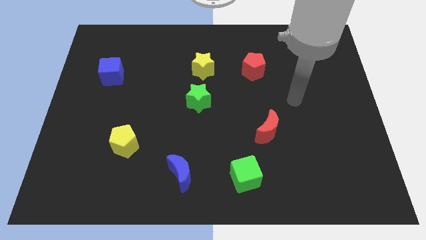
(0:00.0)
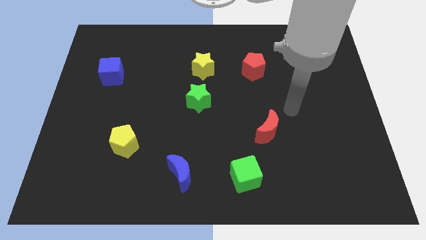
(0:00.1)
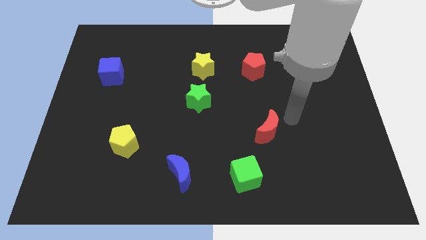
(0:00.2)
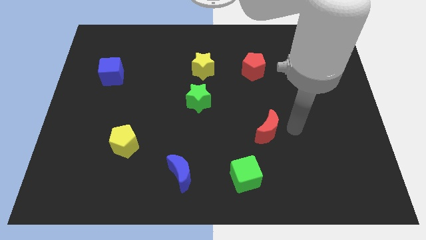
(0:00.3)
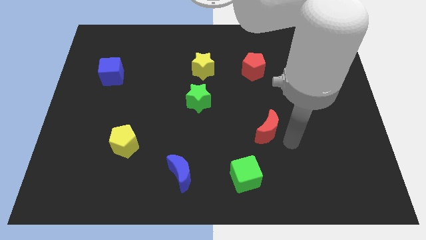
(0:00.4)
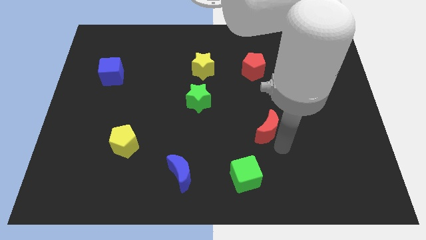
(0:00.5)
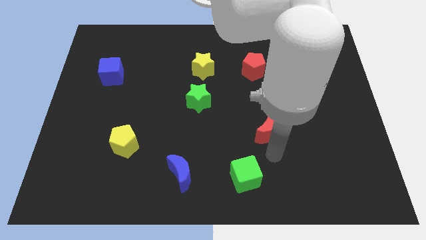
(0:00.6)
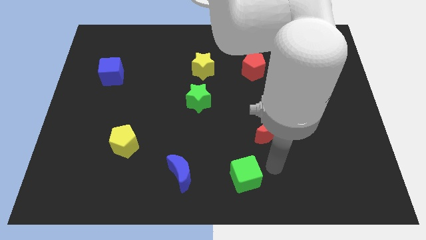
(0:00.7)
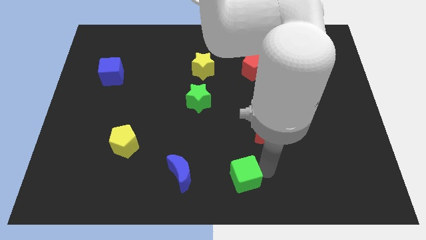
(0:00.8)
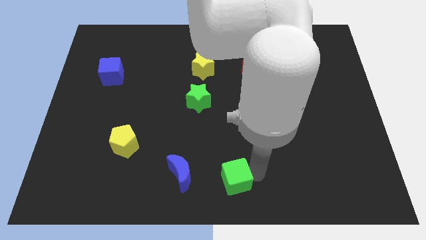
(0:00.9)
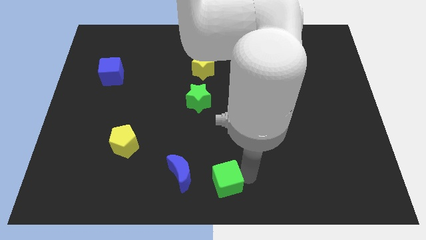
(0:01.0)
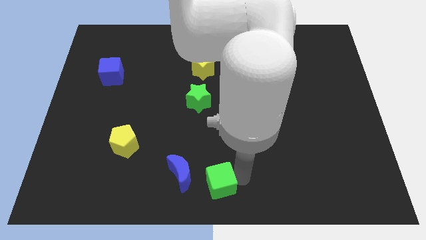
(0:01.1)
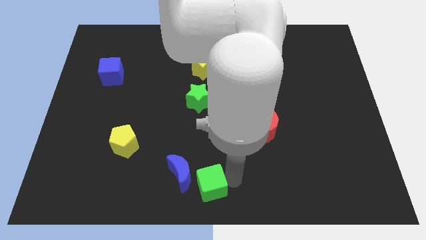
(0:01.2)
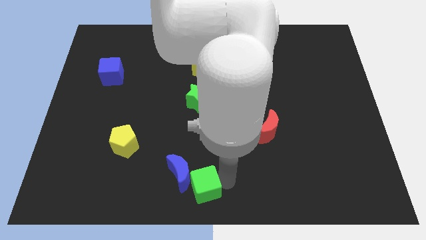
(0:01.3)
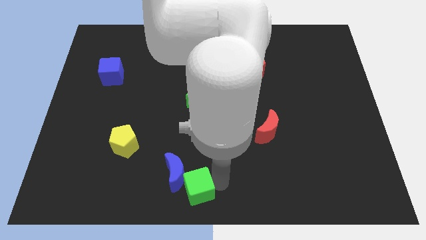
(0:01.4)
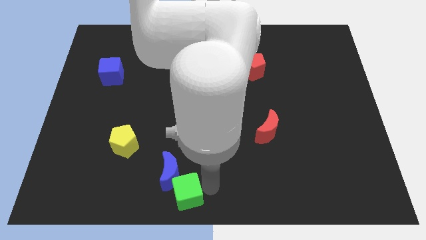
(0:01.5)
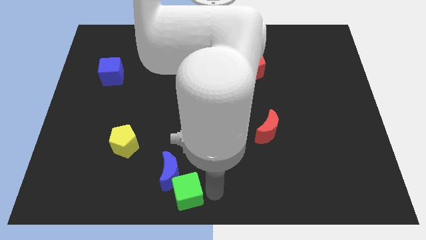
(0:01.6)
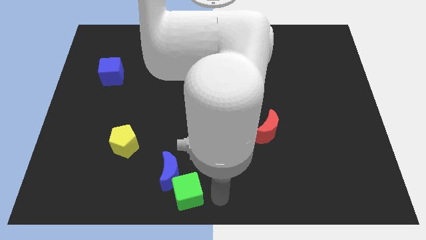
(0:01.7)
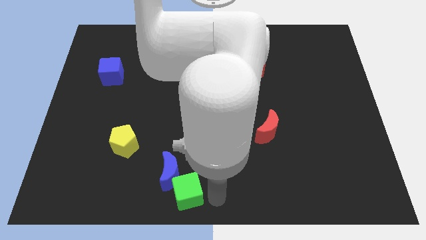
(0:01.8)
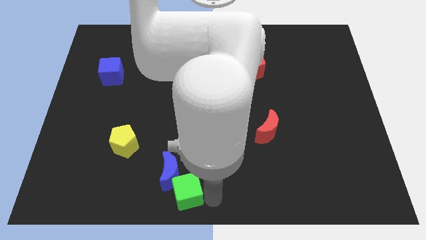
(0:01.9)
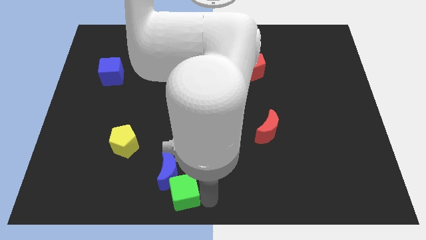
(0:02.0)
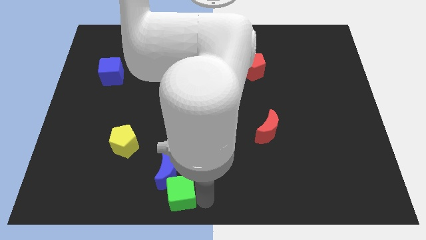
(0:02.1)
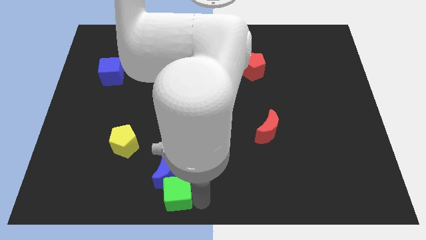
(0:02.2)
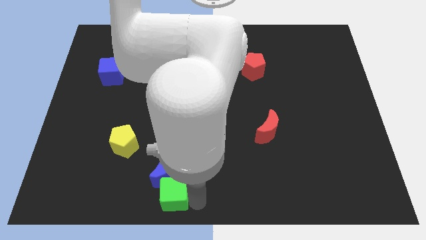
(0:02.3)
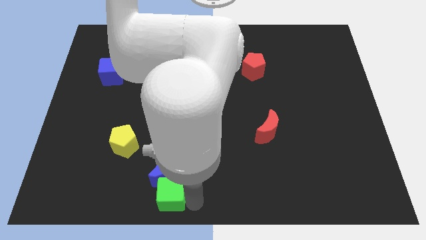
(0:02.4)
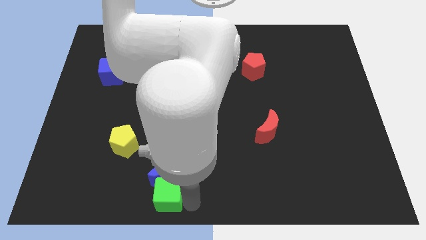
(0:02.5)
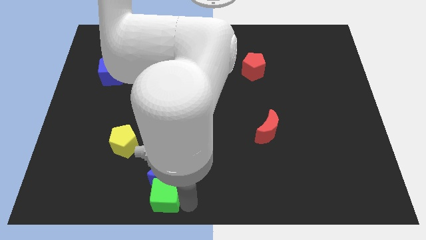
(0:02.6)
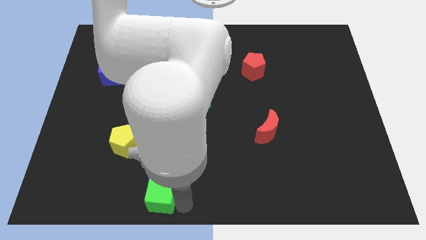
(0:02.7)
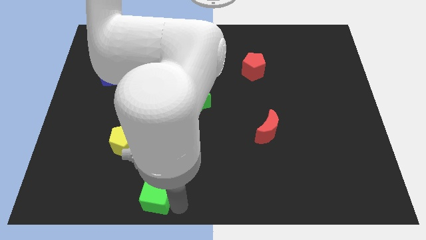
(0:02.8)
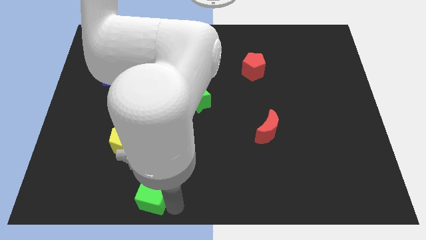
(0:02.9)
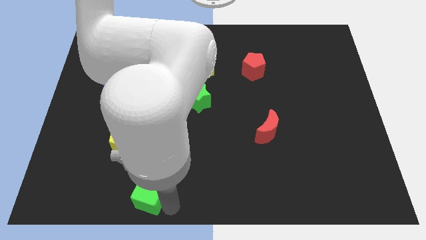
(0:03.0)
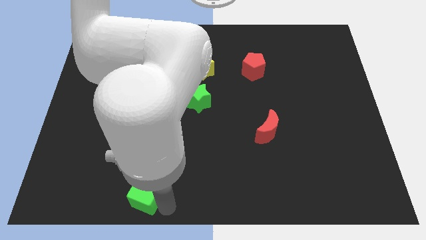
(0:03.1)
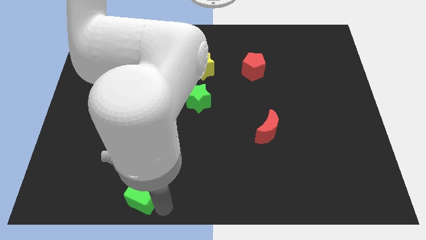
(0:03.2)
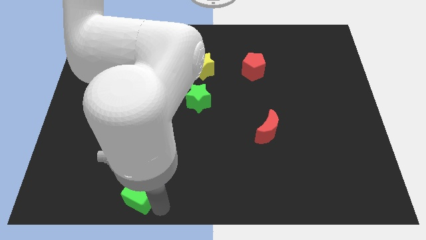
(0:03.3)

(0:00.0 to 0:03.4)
slide the green cube left

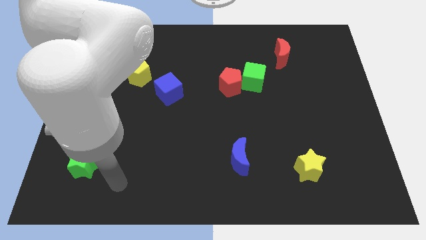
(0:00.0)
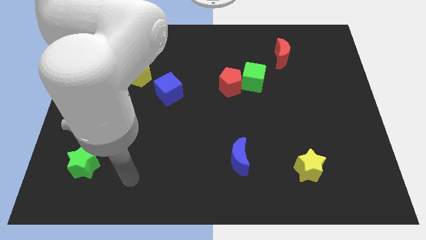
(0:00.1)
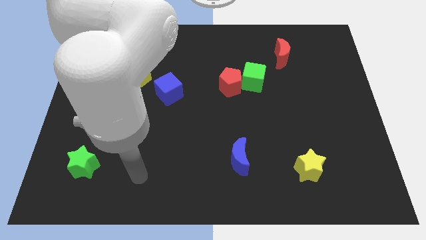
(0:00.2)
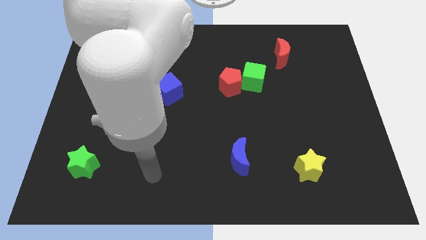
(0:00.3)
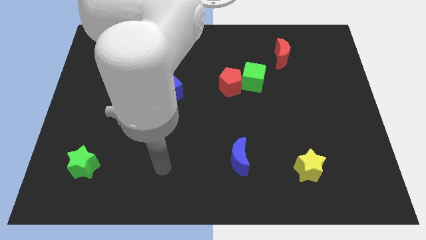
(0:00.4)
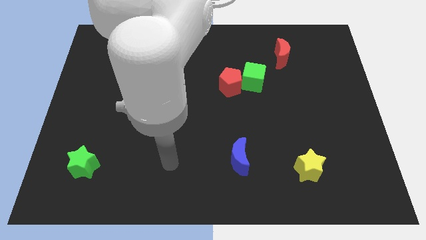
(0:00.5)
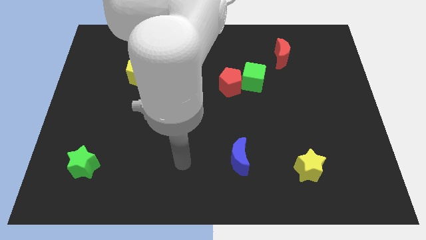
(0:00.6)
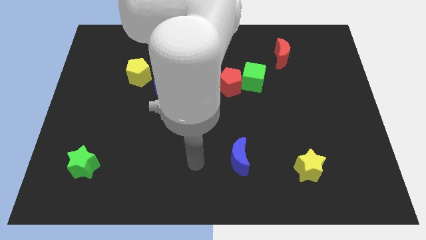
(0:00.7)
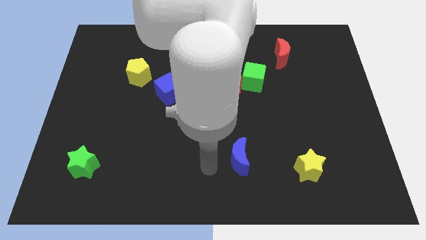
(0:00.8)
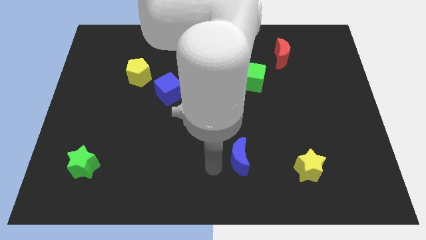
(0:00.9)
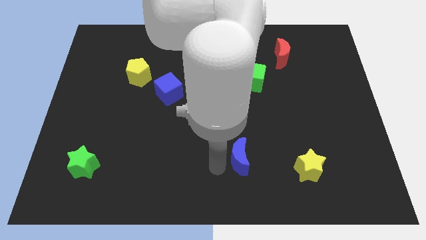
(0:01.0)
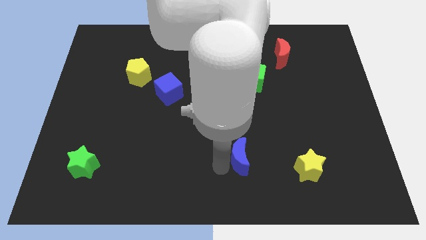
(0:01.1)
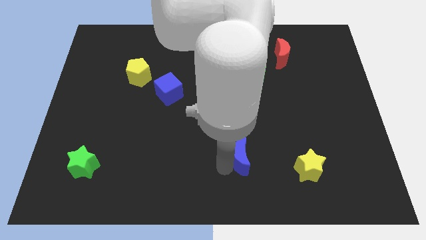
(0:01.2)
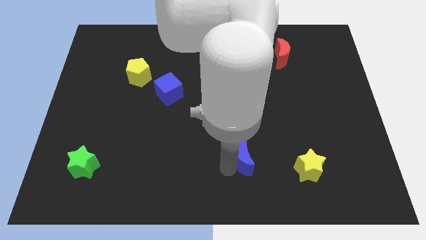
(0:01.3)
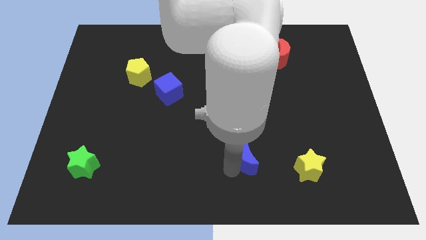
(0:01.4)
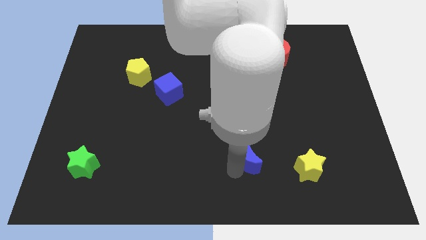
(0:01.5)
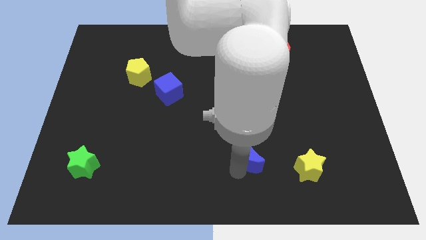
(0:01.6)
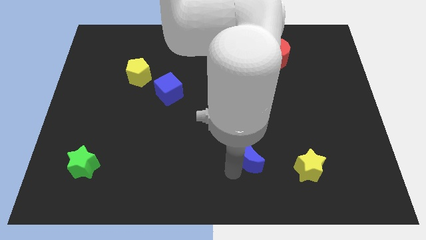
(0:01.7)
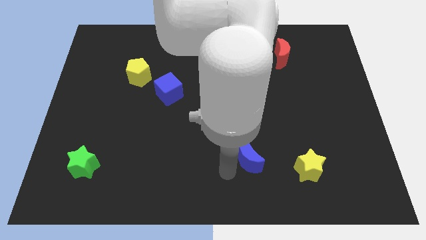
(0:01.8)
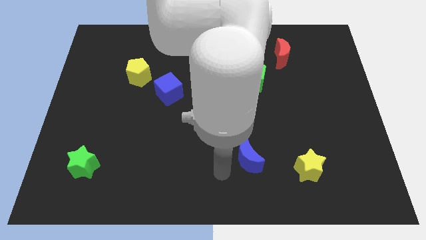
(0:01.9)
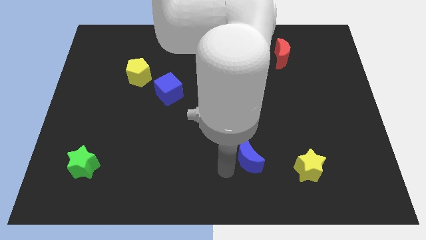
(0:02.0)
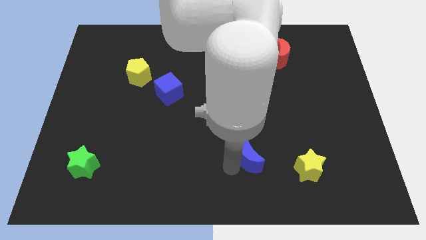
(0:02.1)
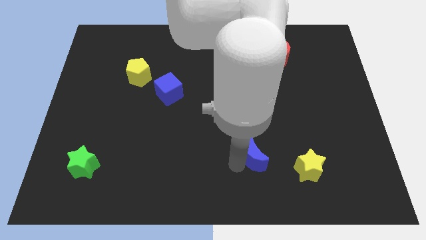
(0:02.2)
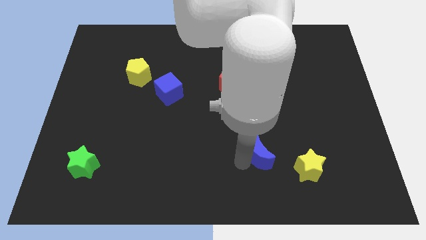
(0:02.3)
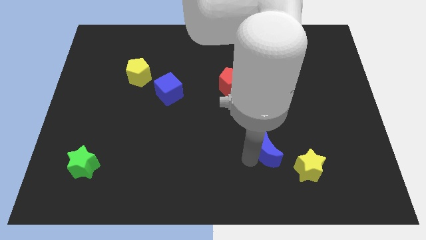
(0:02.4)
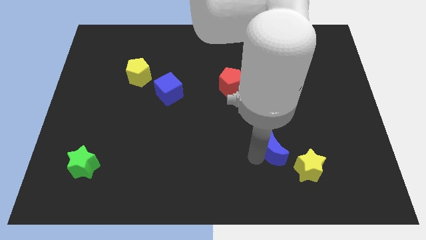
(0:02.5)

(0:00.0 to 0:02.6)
push the blue moon a little right

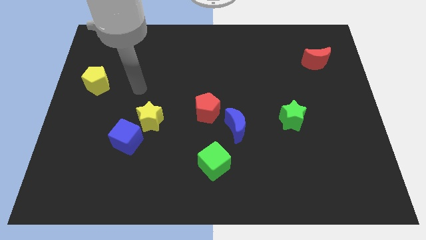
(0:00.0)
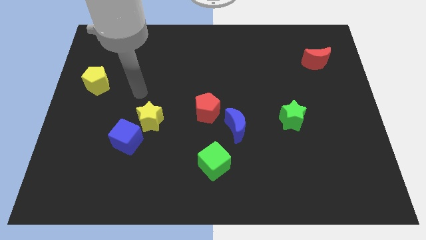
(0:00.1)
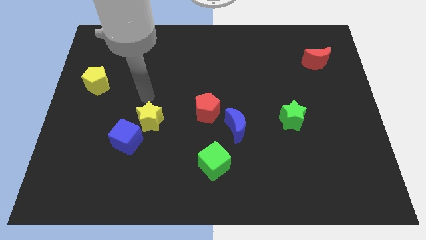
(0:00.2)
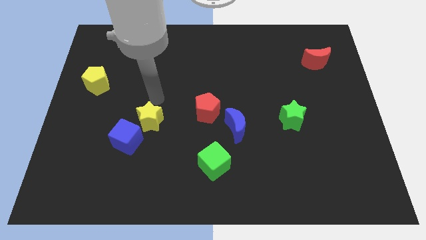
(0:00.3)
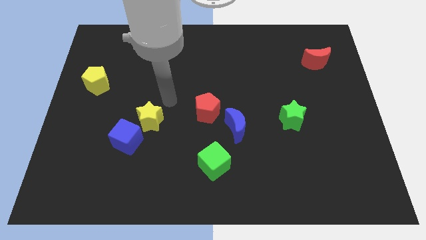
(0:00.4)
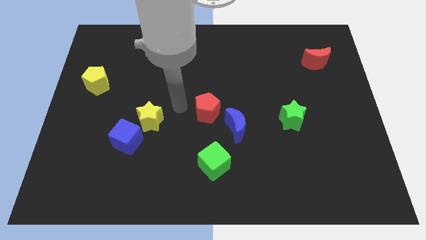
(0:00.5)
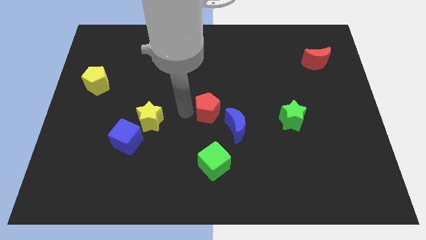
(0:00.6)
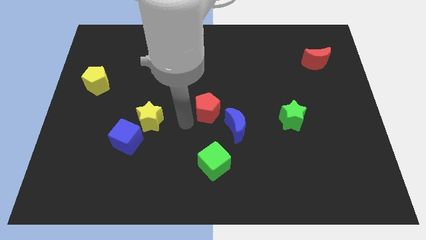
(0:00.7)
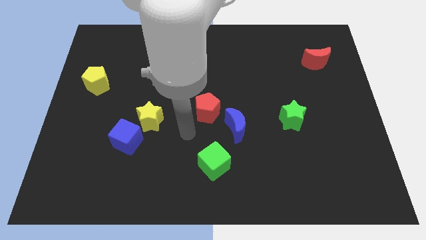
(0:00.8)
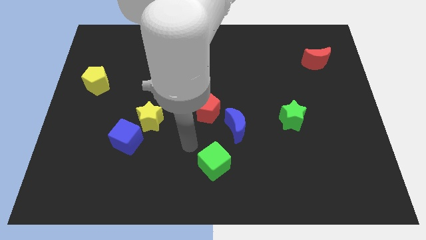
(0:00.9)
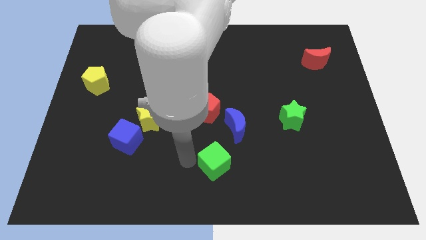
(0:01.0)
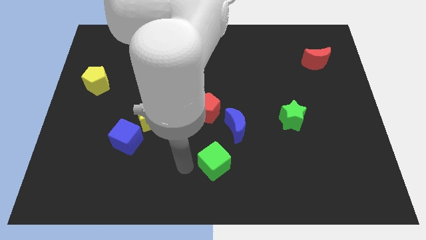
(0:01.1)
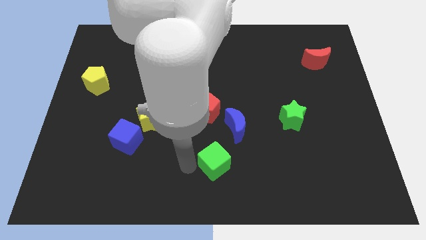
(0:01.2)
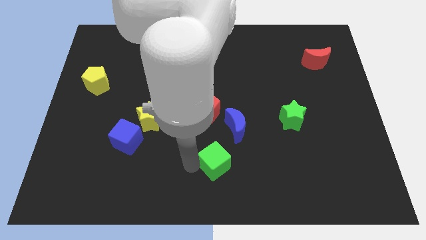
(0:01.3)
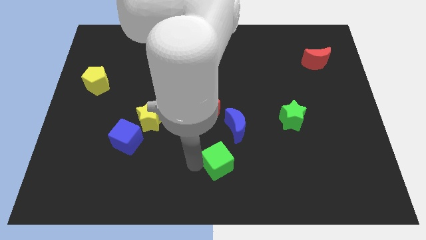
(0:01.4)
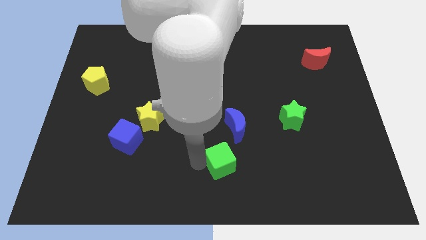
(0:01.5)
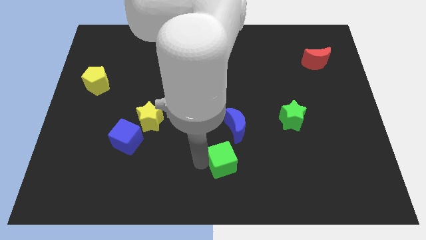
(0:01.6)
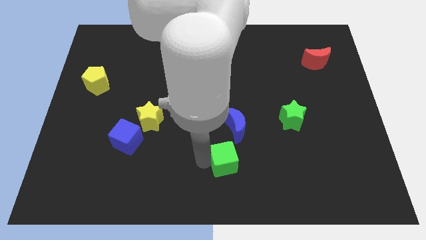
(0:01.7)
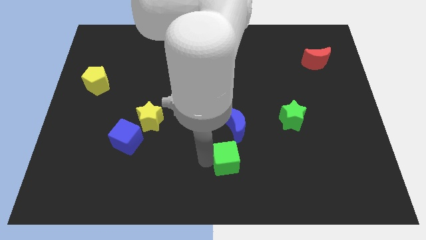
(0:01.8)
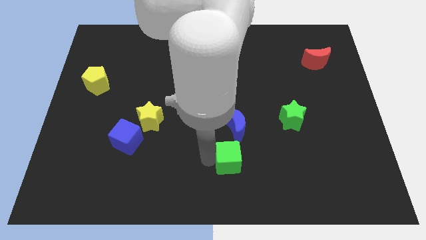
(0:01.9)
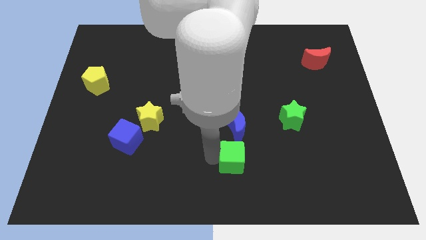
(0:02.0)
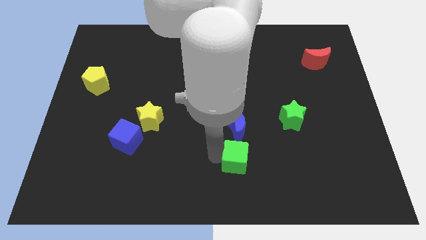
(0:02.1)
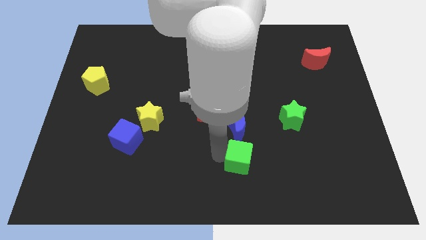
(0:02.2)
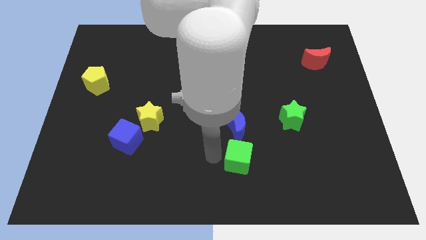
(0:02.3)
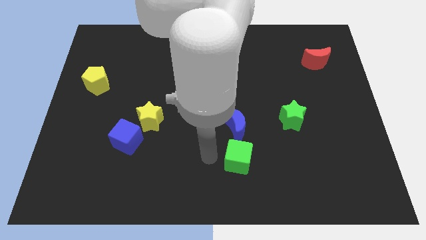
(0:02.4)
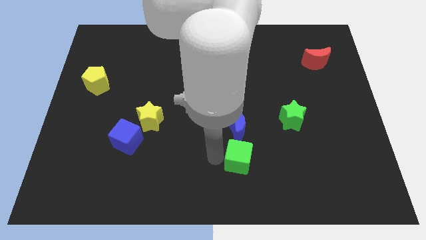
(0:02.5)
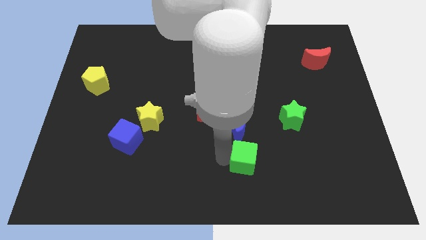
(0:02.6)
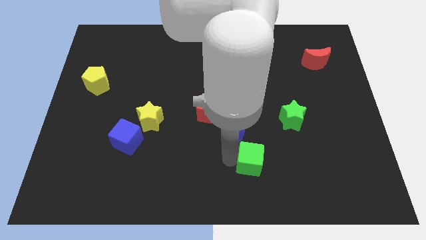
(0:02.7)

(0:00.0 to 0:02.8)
push the green cube a bit to the right
